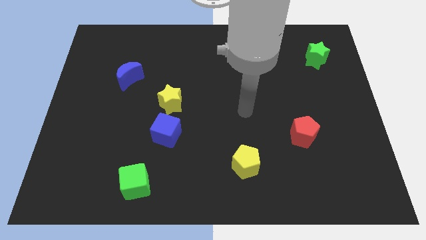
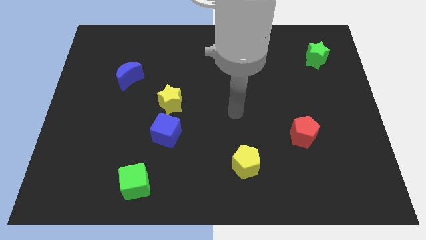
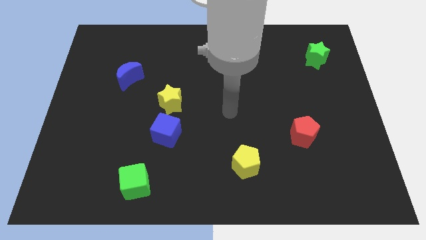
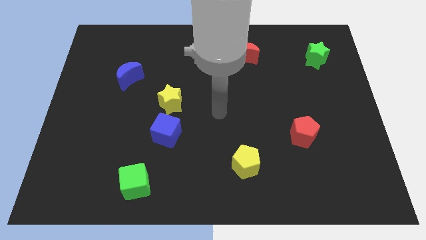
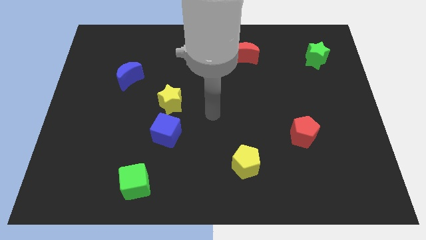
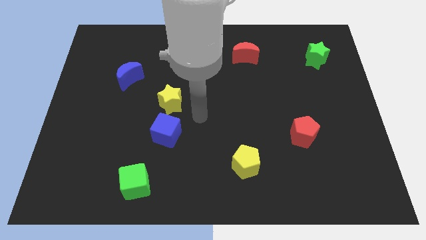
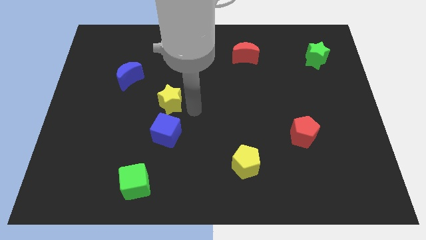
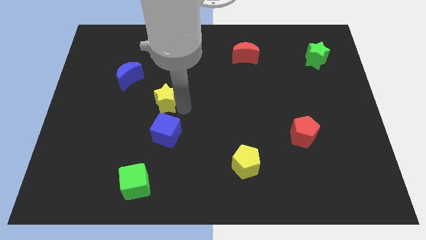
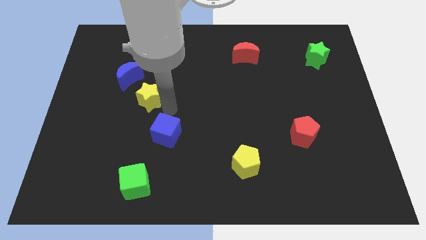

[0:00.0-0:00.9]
separate the blue cube from the yellow star

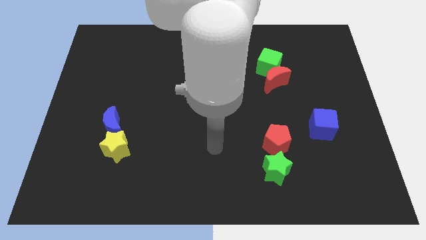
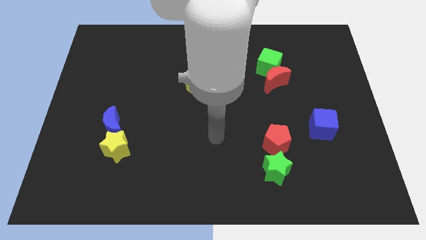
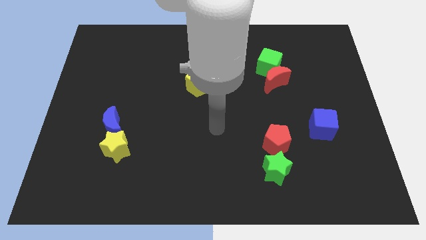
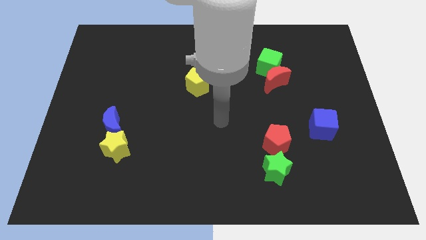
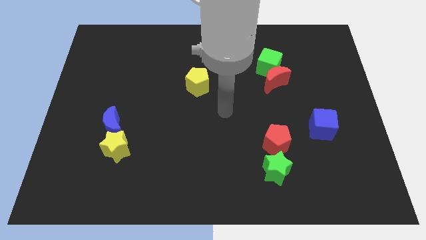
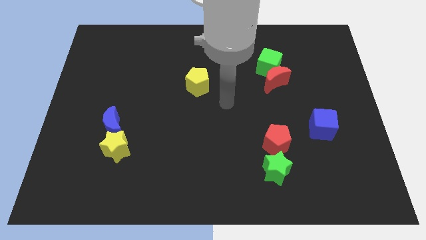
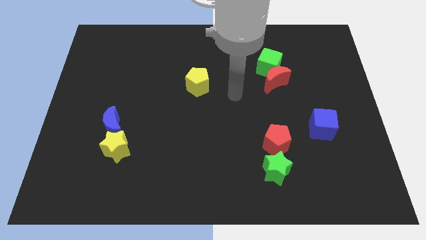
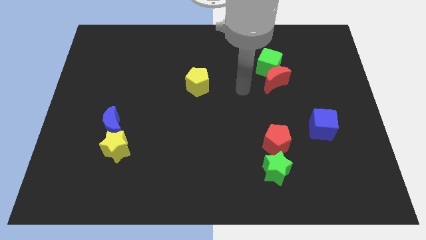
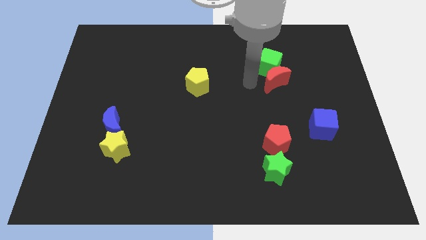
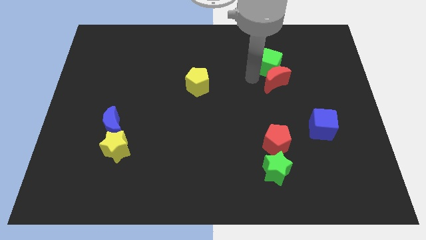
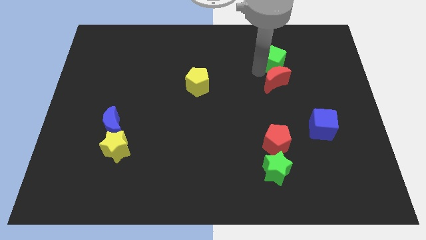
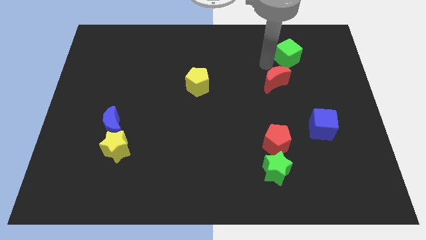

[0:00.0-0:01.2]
move the red moon away from the green cube

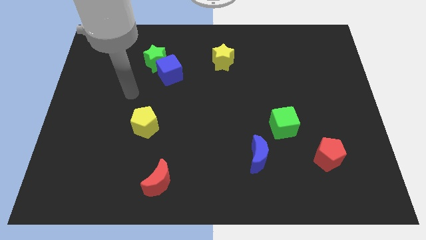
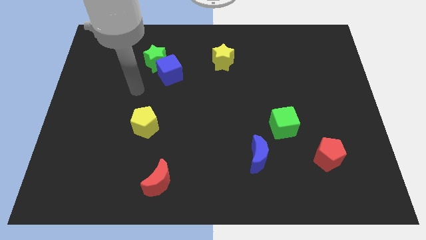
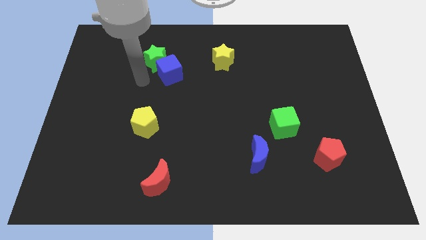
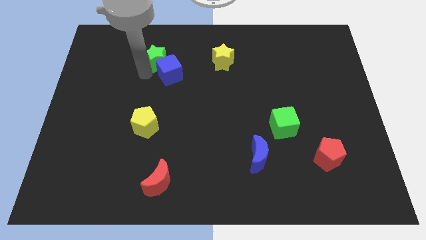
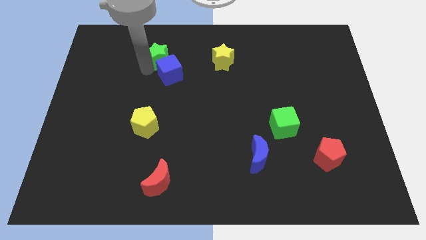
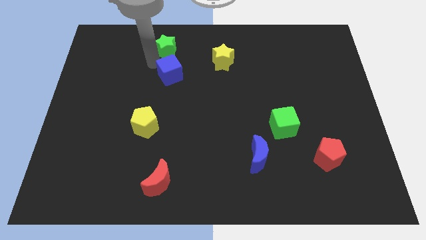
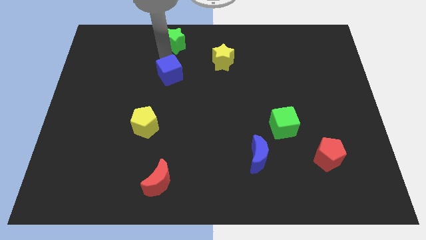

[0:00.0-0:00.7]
move the blue cube away from the green star

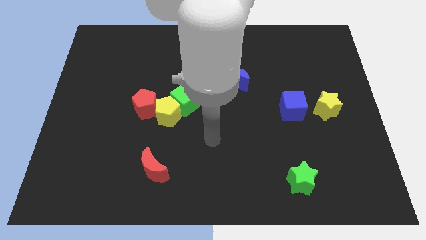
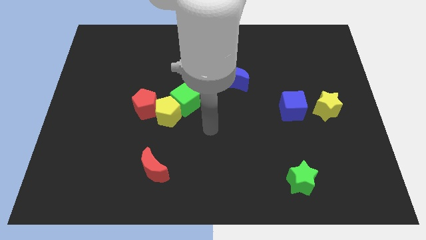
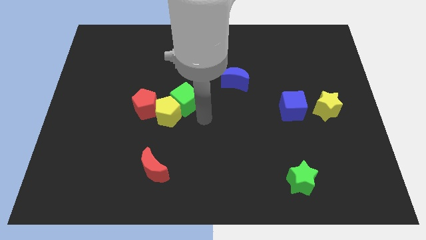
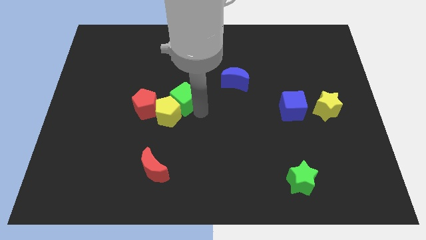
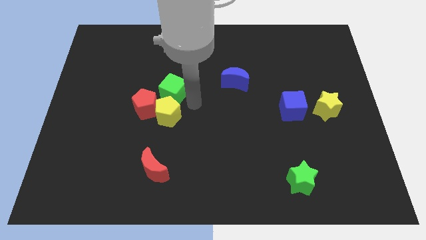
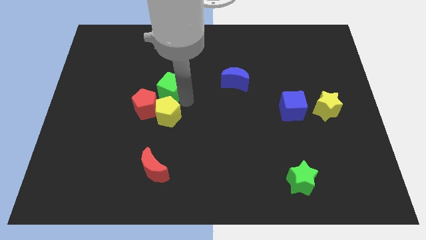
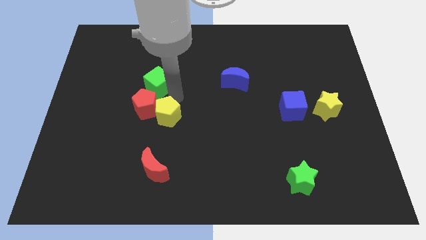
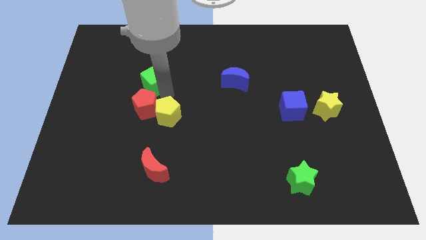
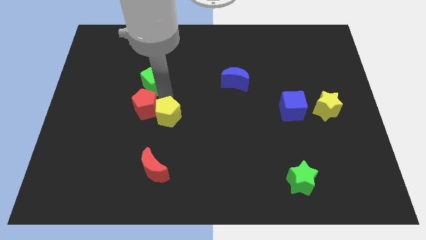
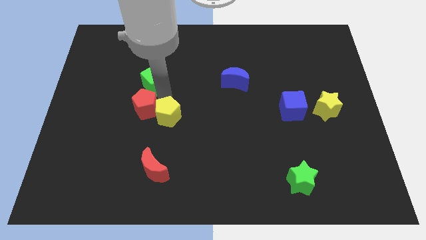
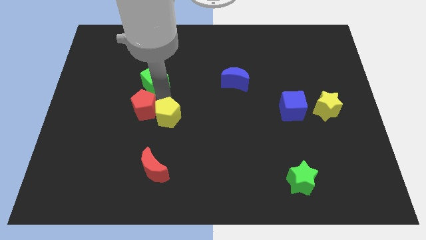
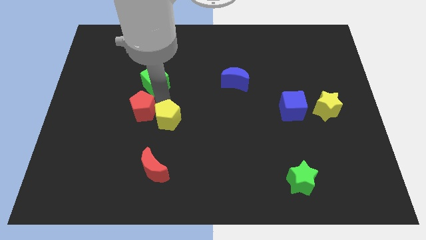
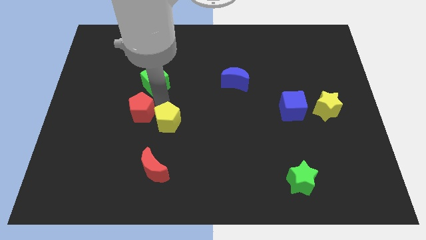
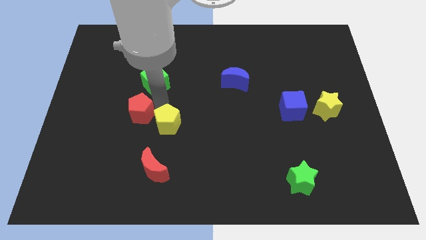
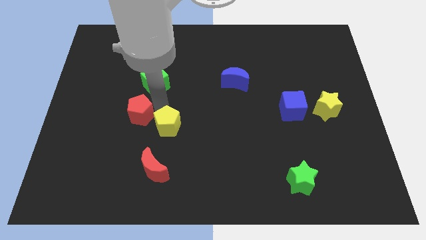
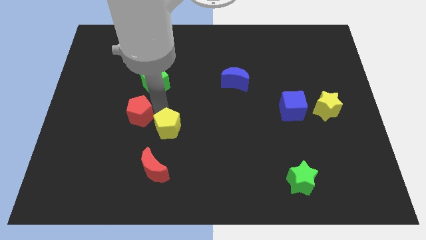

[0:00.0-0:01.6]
pull the yellow pentagon apart from the green cube and red pentagon

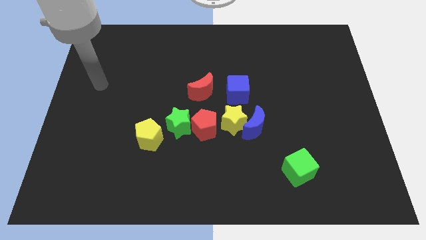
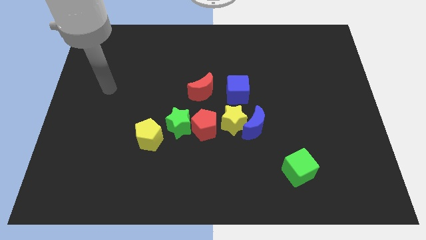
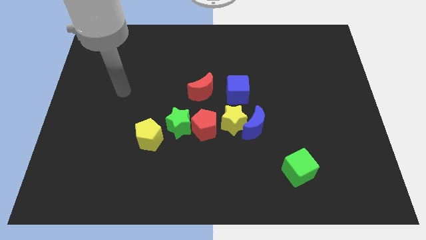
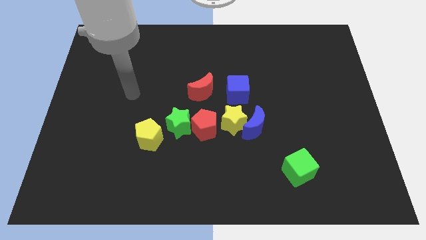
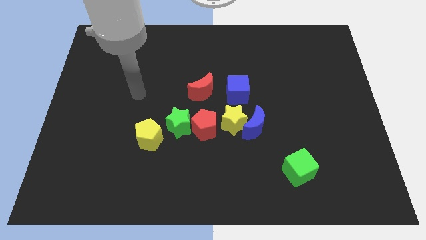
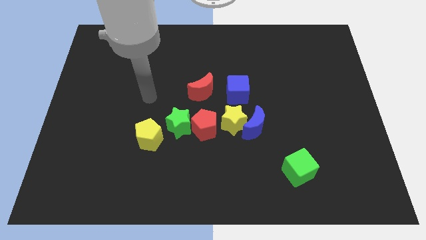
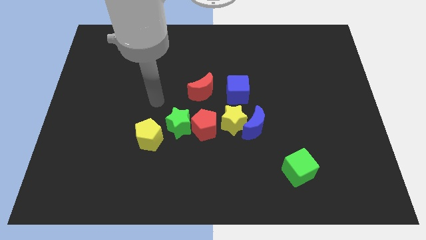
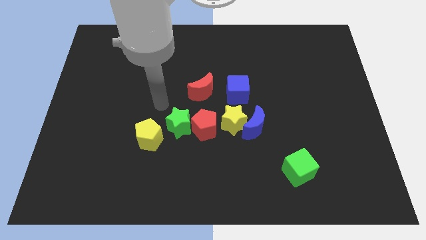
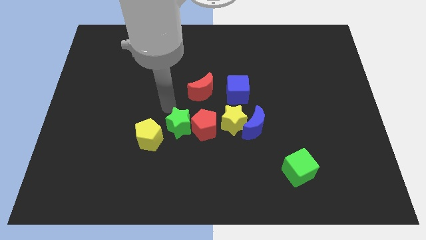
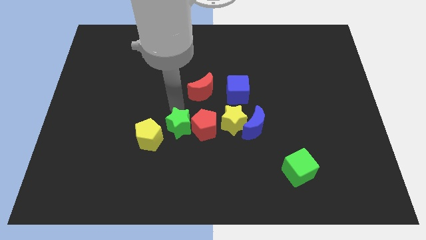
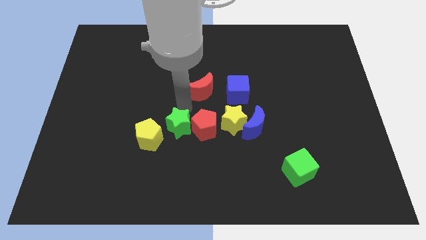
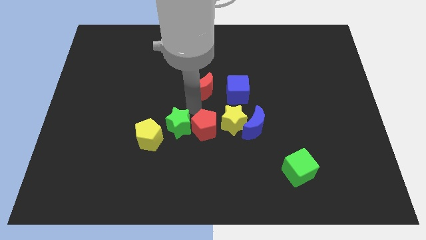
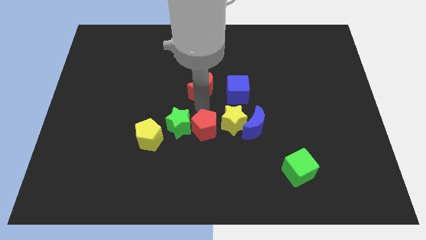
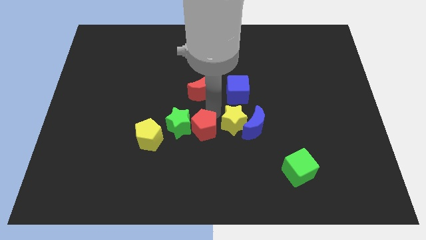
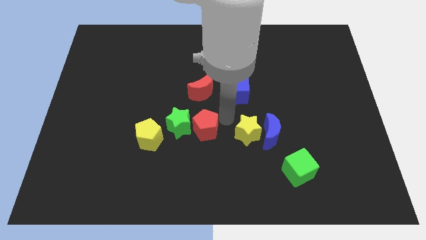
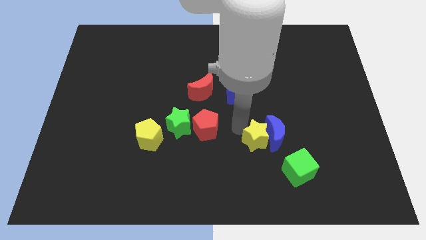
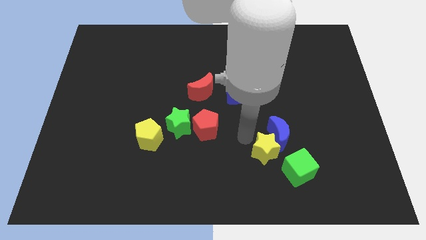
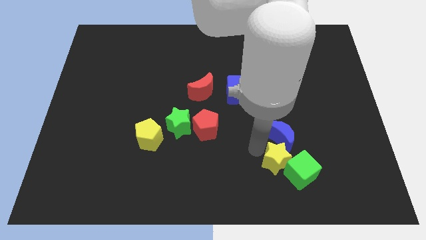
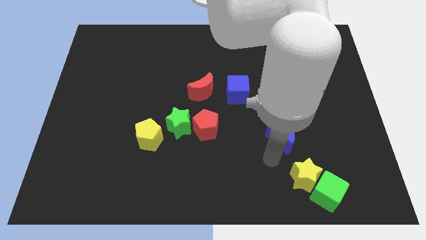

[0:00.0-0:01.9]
pull the blue moon apart from the yellow star

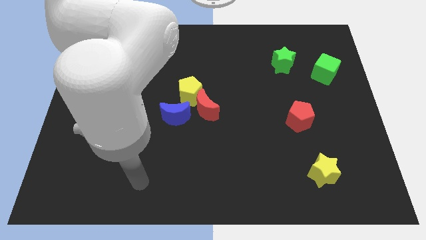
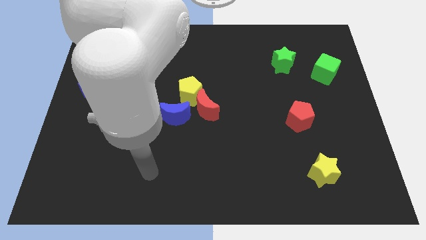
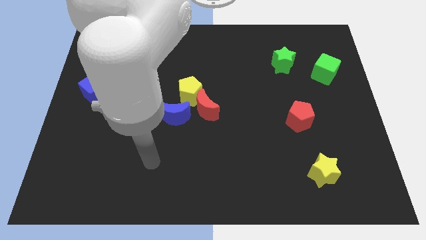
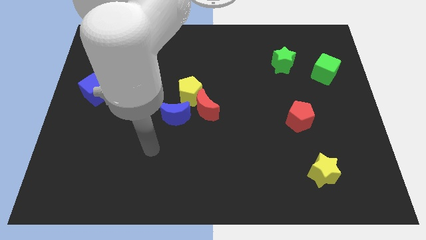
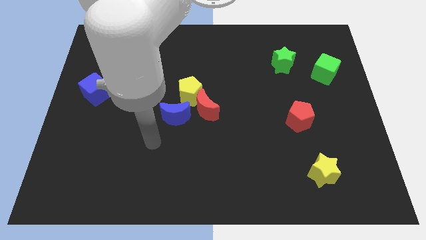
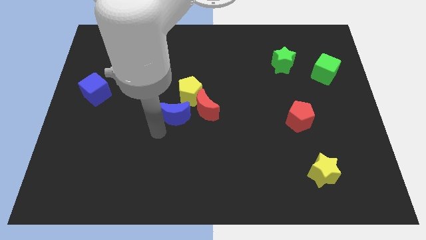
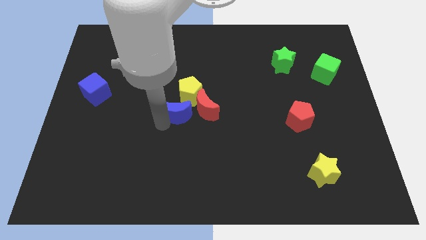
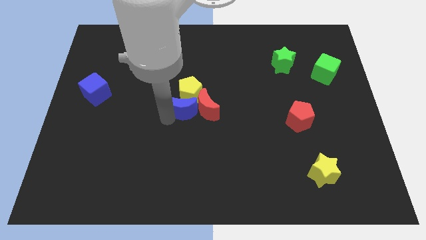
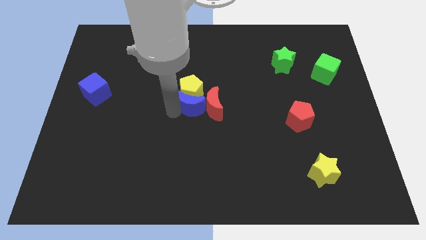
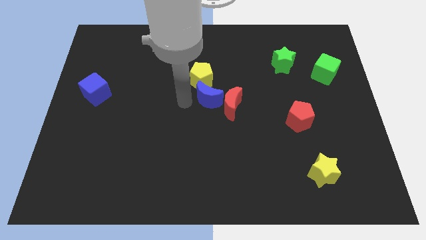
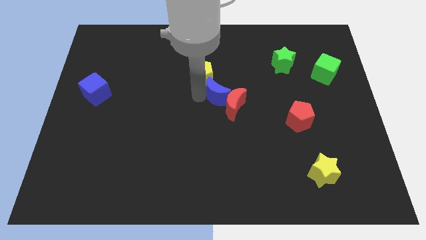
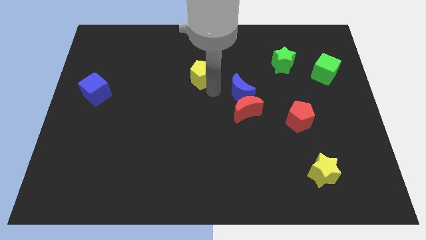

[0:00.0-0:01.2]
pull the red moon apart from the yellow pentagon and blue moon

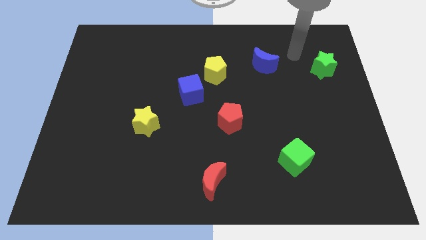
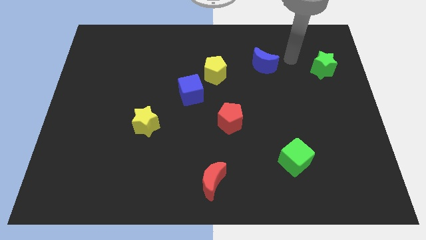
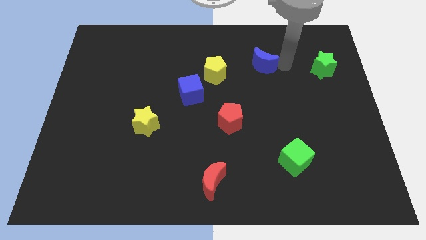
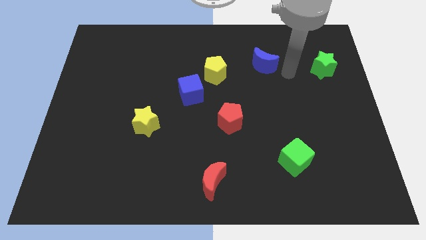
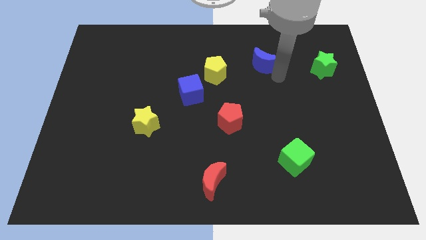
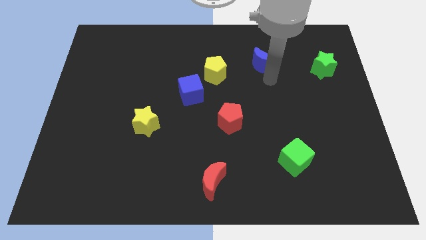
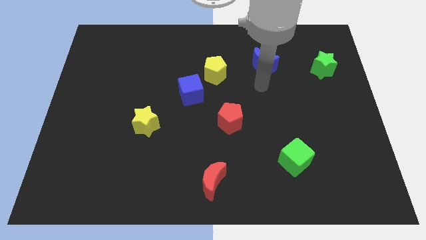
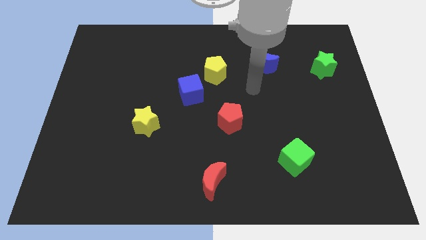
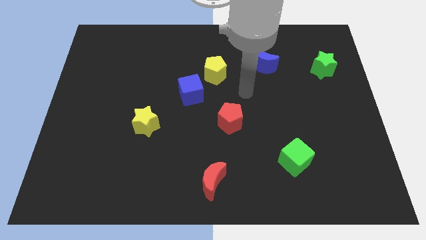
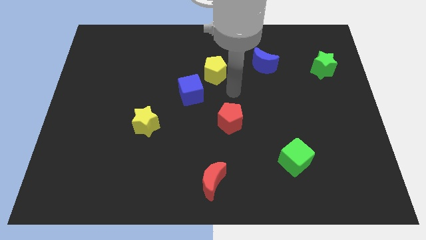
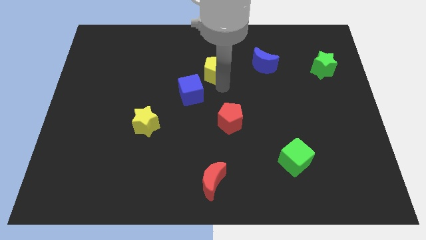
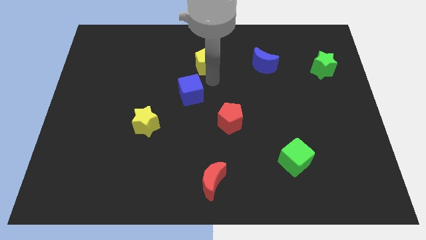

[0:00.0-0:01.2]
move the blue cube away from the yellow pentagon

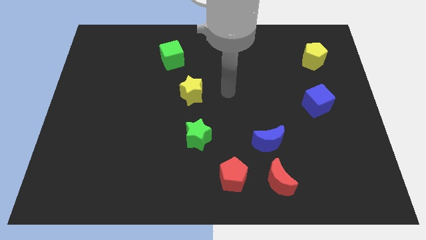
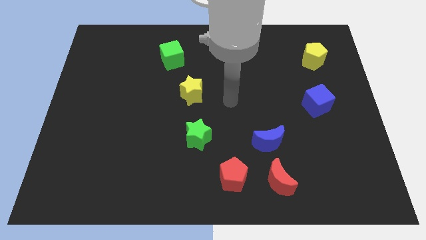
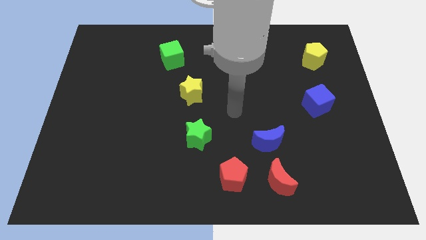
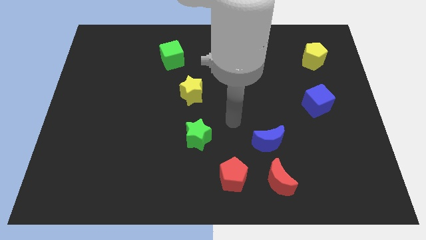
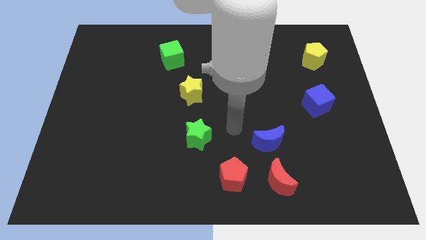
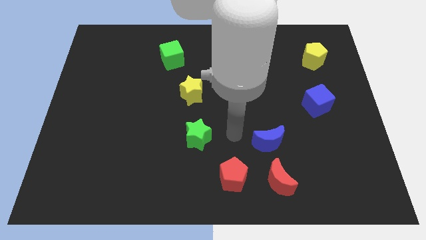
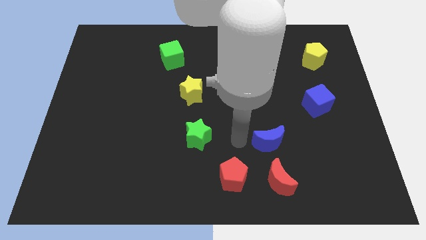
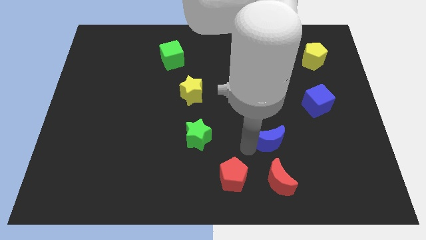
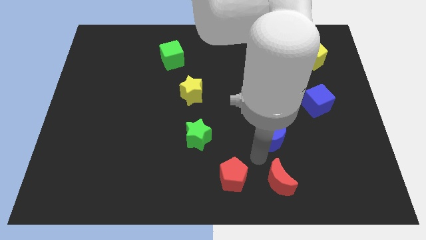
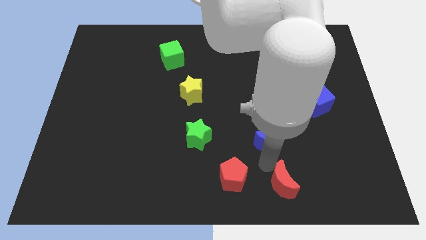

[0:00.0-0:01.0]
pull the blue moon apart from the red moon
